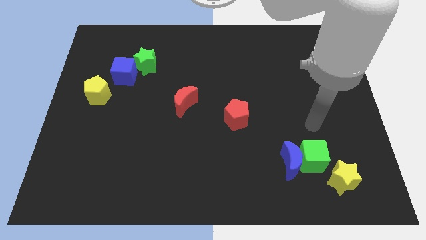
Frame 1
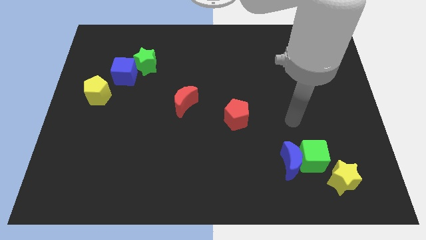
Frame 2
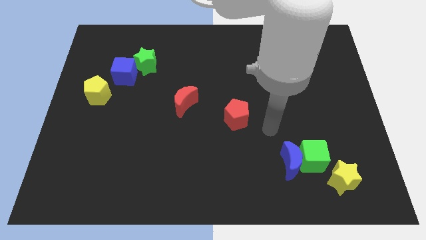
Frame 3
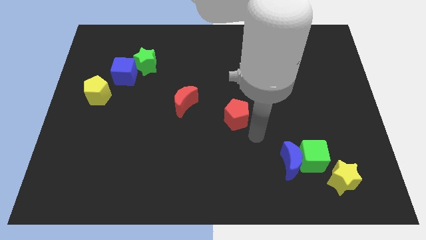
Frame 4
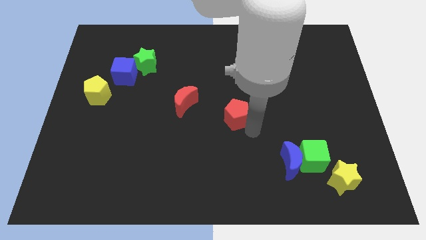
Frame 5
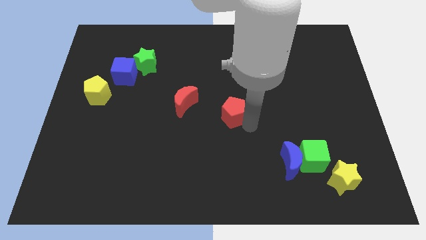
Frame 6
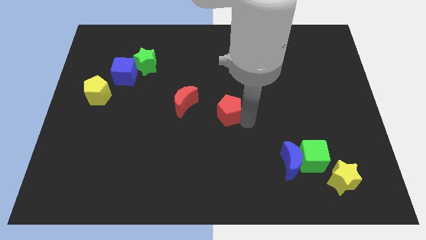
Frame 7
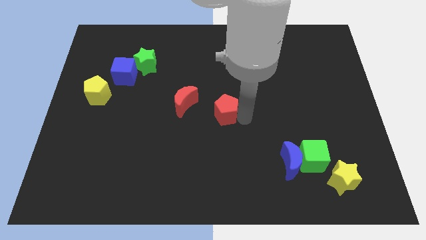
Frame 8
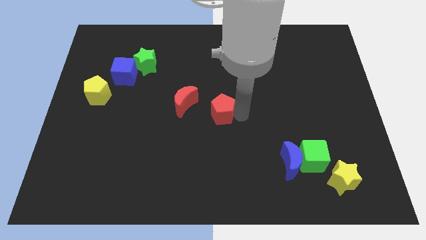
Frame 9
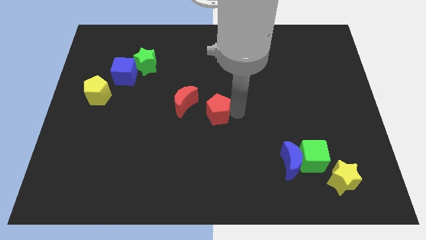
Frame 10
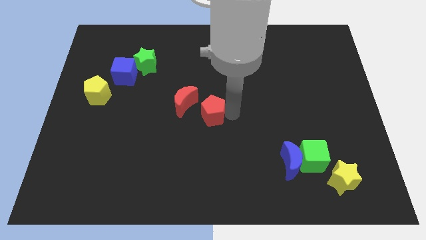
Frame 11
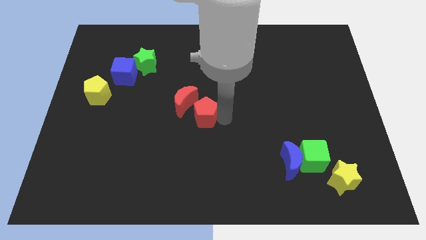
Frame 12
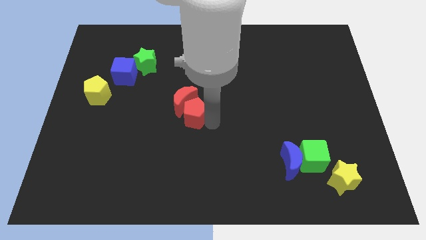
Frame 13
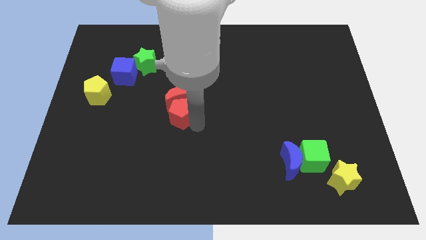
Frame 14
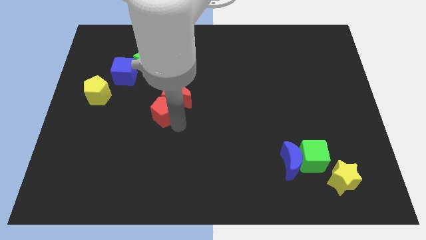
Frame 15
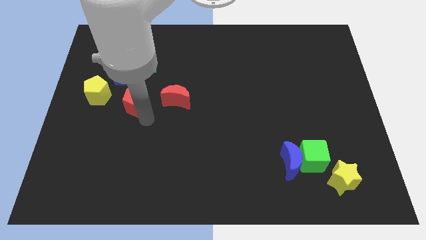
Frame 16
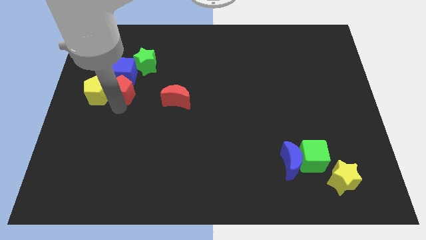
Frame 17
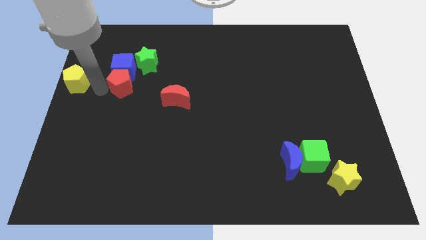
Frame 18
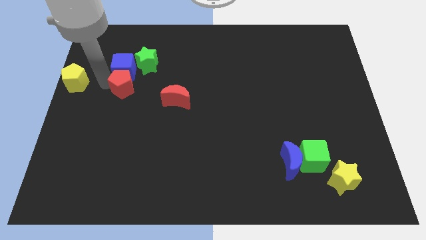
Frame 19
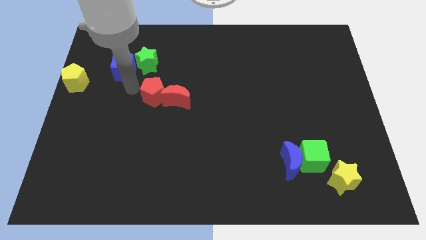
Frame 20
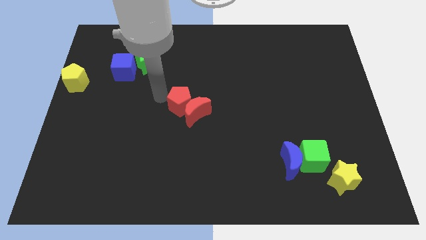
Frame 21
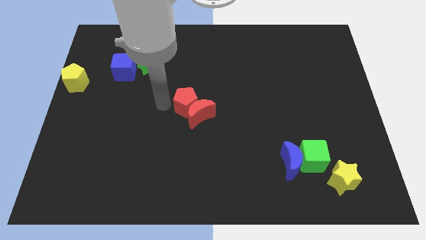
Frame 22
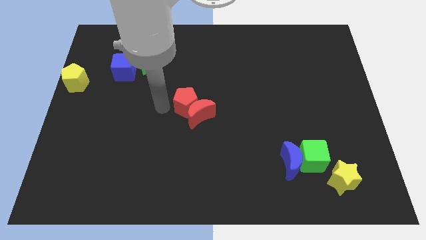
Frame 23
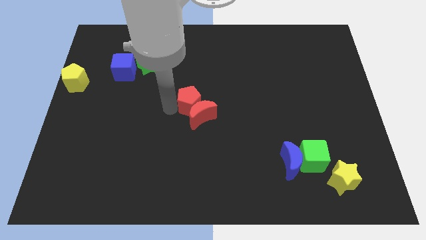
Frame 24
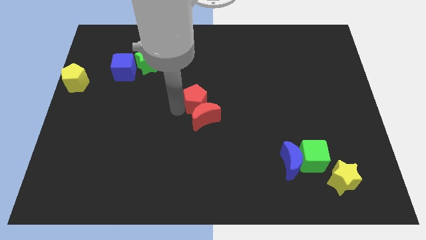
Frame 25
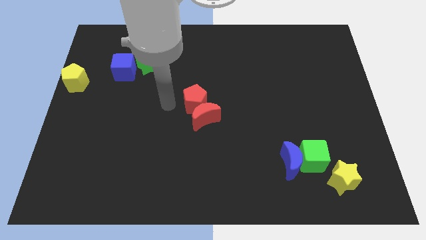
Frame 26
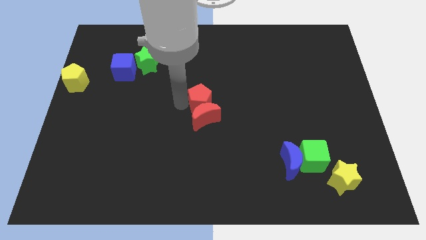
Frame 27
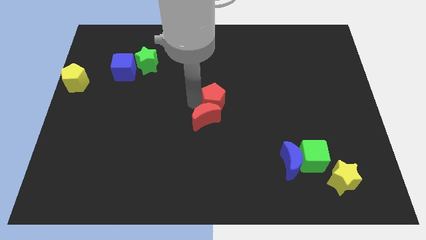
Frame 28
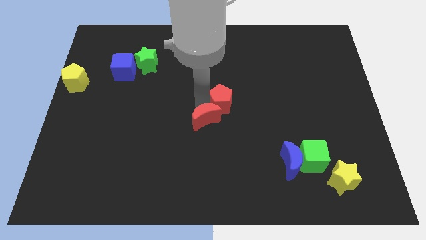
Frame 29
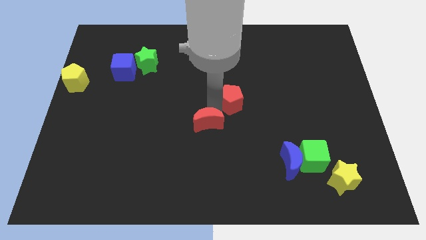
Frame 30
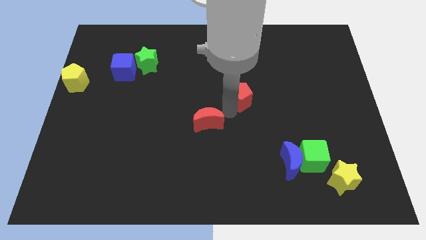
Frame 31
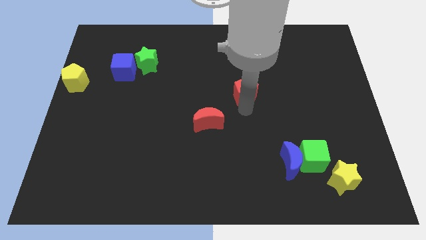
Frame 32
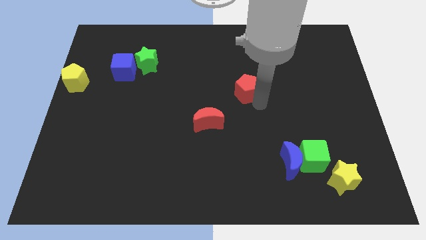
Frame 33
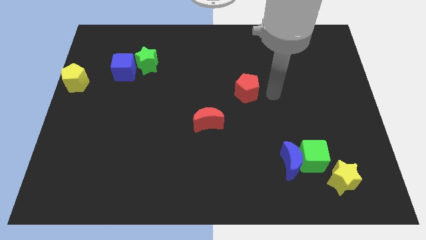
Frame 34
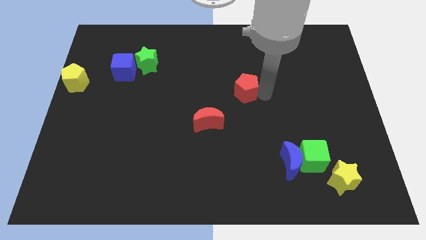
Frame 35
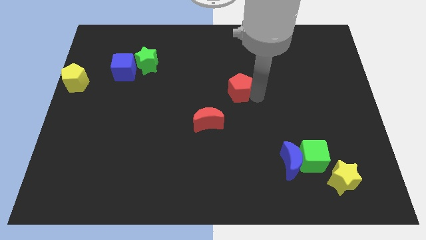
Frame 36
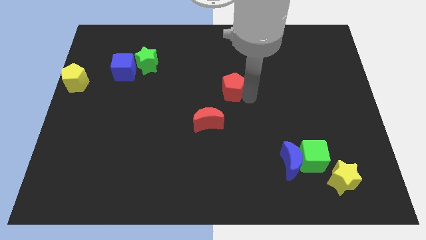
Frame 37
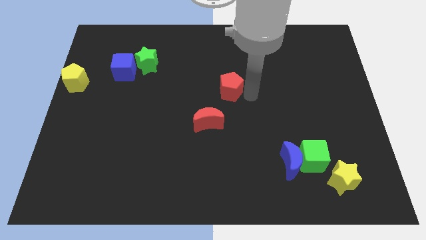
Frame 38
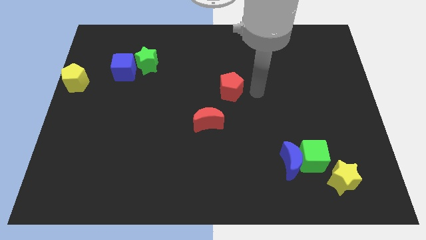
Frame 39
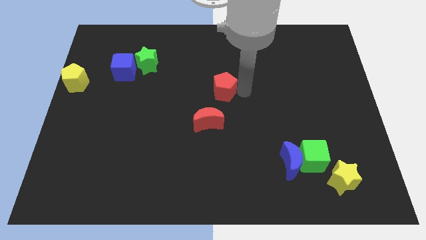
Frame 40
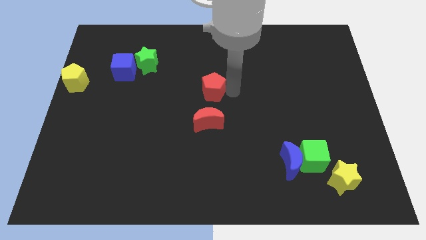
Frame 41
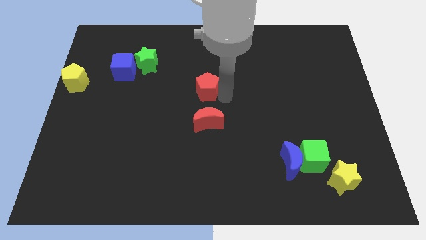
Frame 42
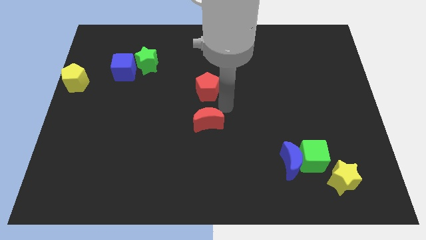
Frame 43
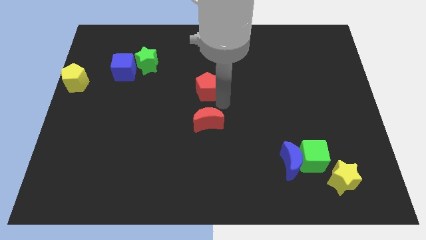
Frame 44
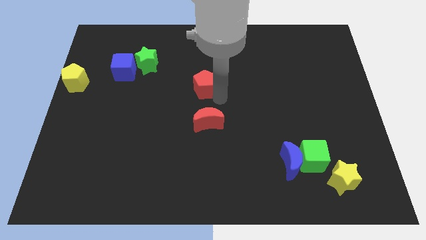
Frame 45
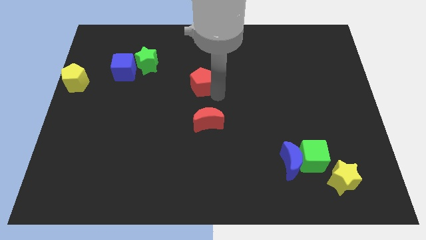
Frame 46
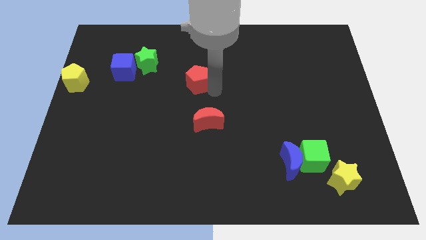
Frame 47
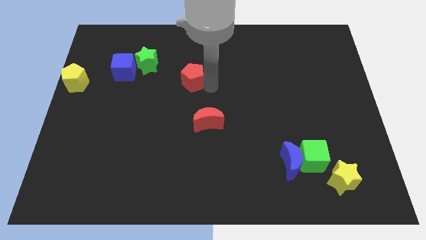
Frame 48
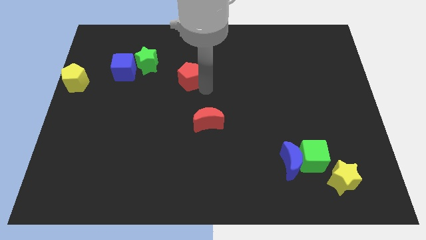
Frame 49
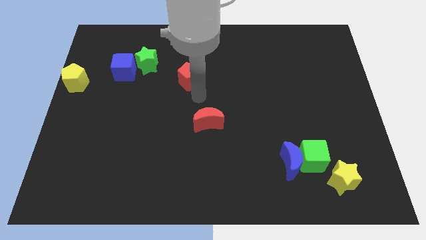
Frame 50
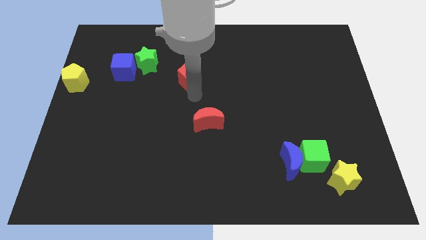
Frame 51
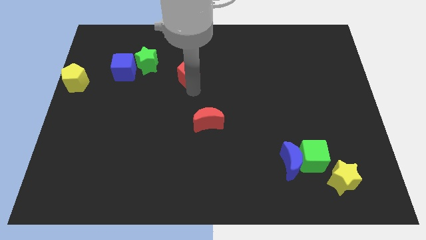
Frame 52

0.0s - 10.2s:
move the red pentagon right of the green star

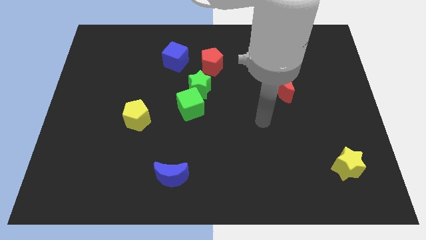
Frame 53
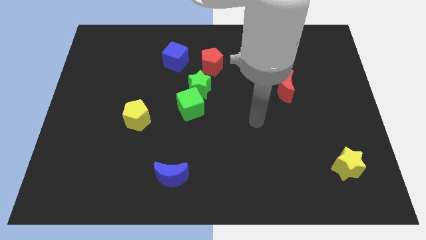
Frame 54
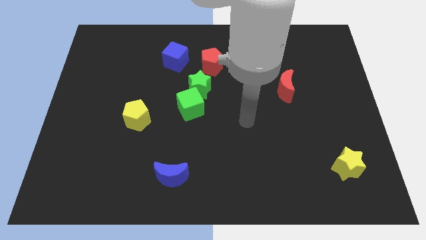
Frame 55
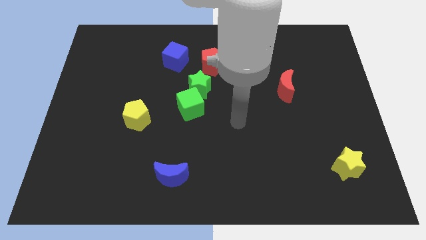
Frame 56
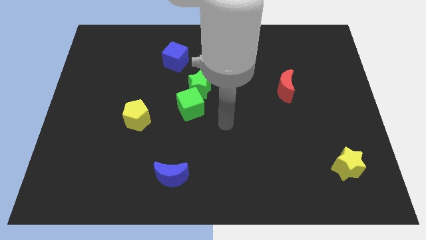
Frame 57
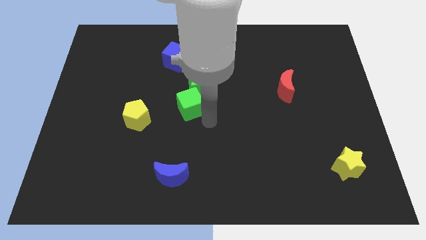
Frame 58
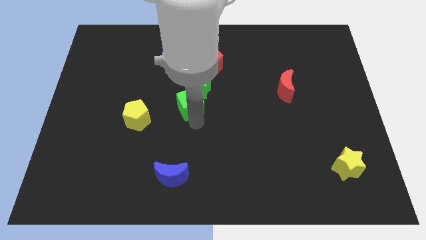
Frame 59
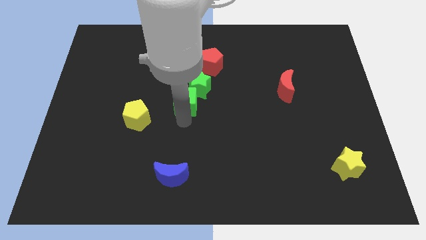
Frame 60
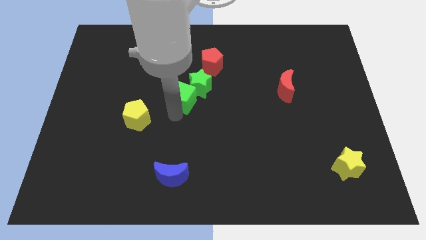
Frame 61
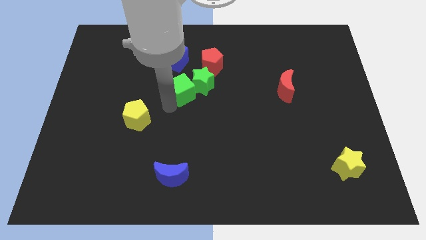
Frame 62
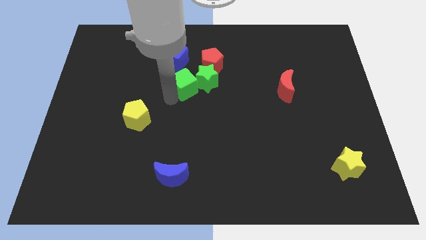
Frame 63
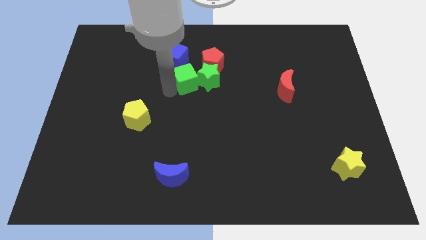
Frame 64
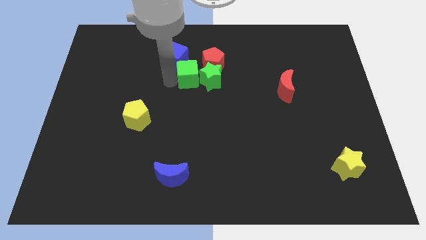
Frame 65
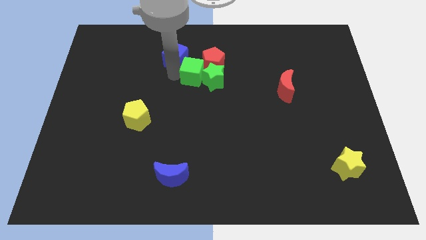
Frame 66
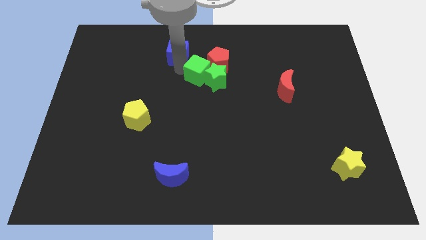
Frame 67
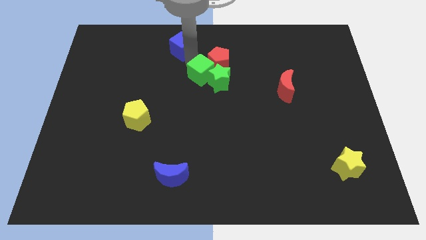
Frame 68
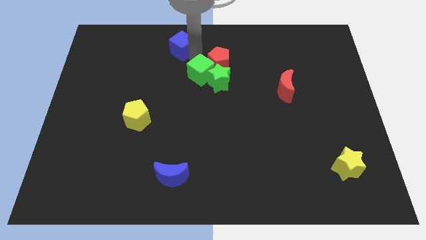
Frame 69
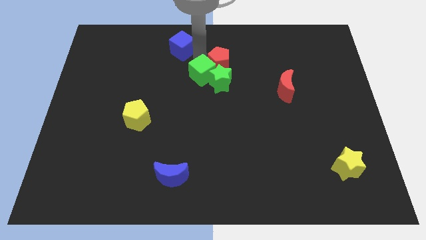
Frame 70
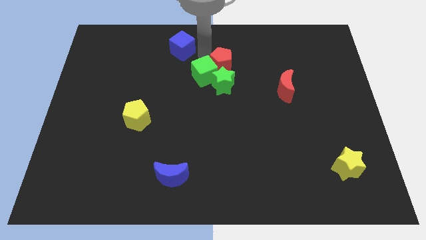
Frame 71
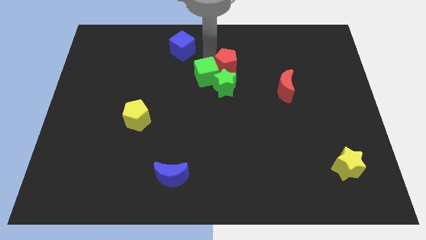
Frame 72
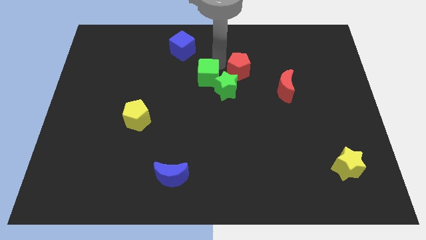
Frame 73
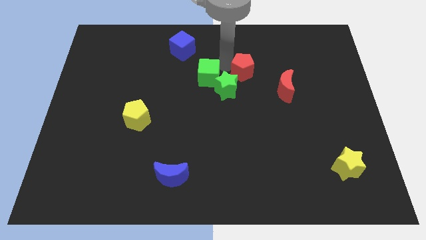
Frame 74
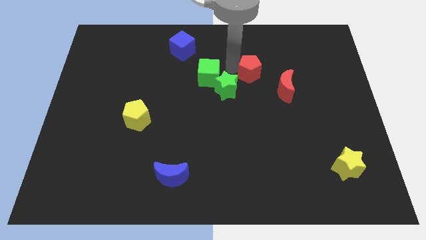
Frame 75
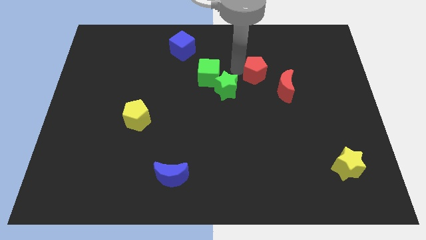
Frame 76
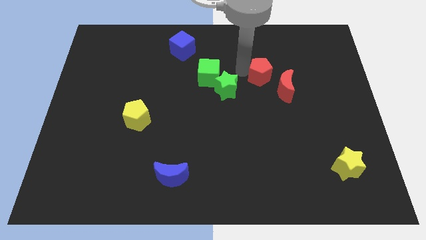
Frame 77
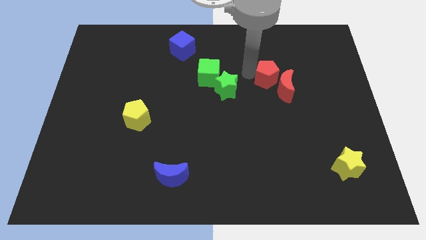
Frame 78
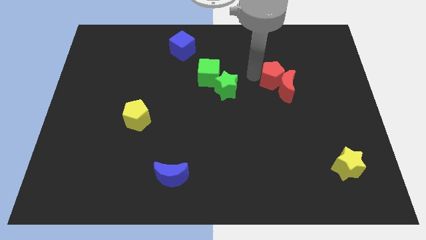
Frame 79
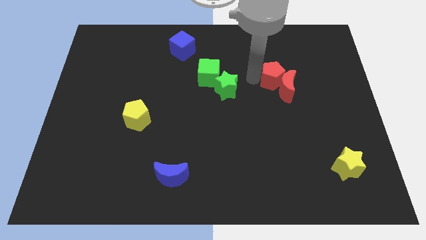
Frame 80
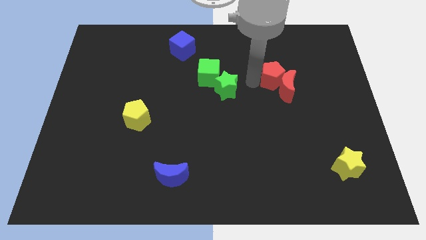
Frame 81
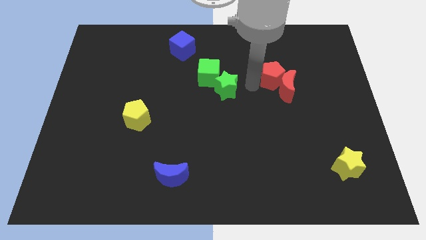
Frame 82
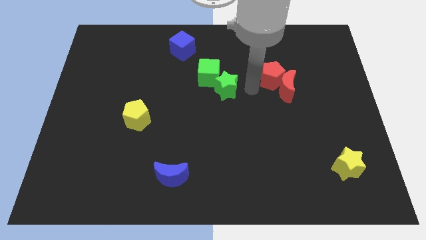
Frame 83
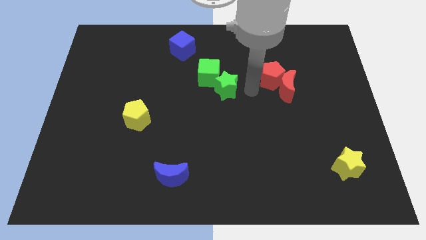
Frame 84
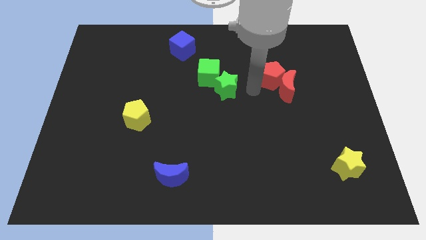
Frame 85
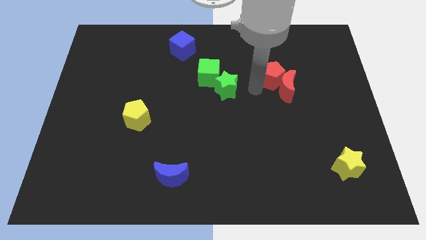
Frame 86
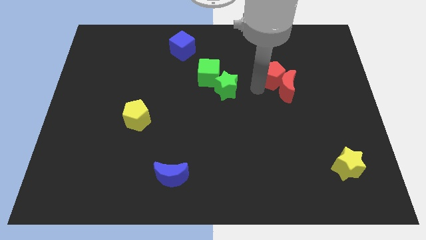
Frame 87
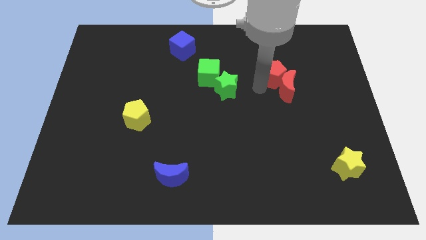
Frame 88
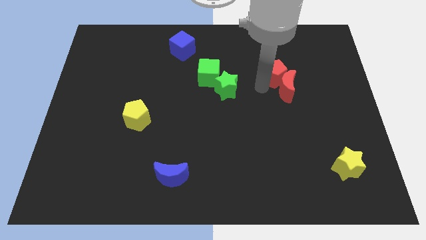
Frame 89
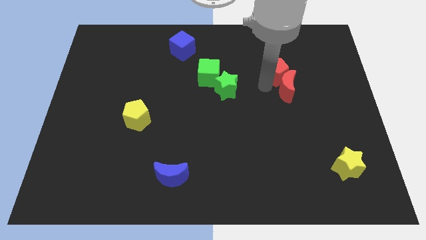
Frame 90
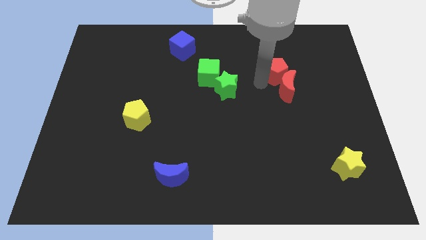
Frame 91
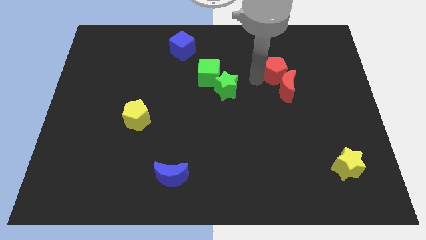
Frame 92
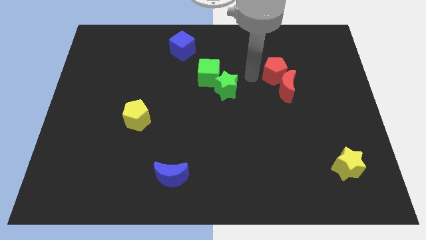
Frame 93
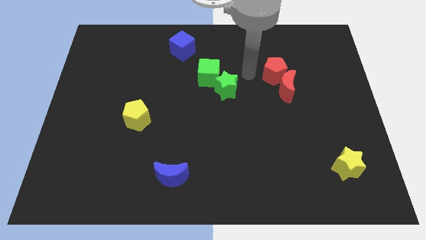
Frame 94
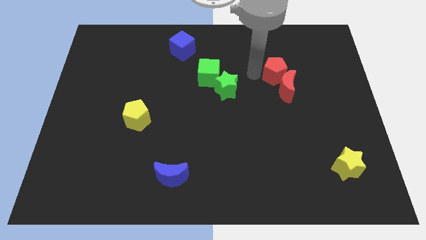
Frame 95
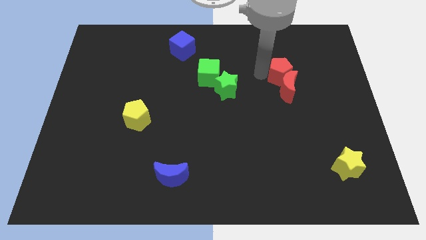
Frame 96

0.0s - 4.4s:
push the red pentagon to the top right side of the red moon
